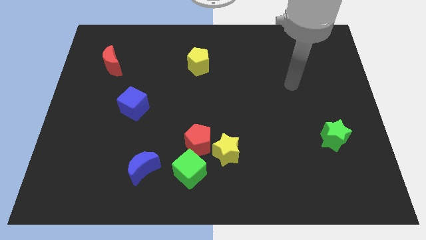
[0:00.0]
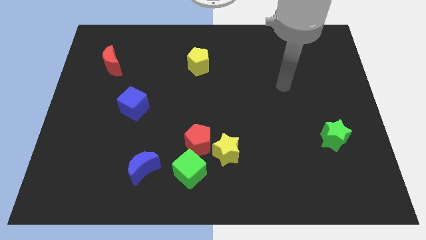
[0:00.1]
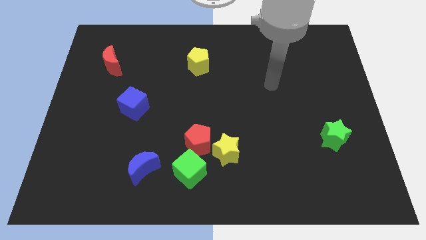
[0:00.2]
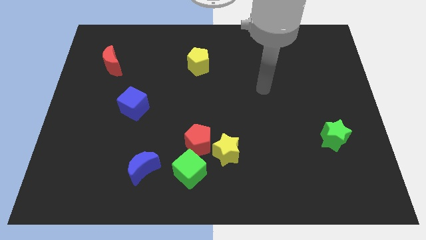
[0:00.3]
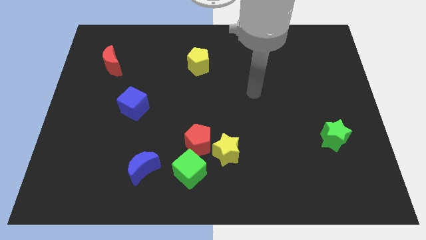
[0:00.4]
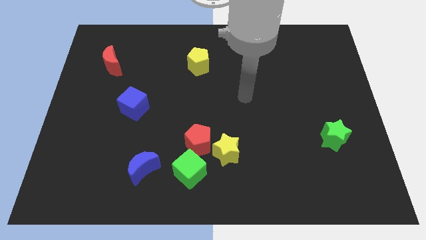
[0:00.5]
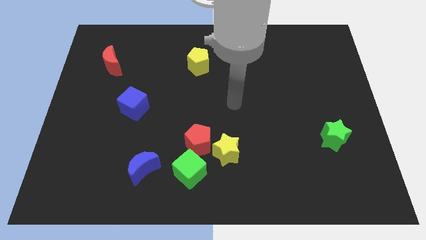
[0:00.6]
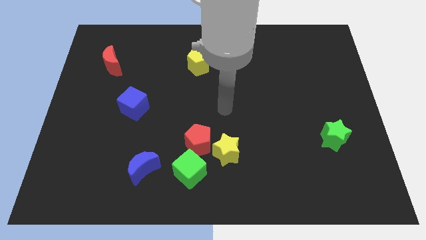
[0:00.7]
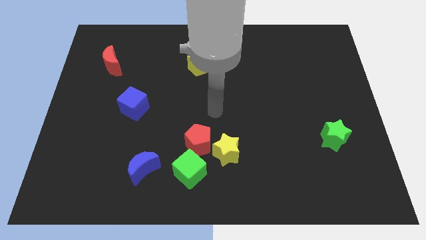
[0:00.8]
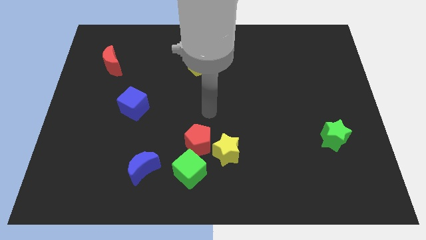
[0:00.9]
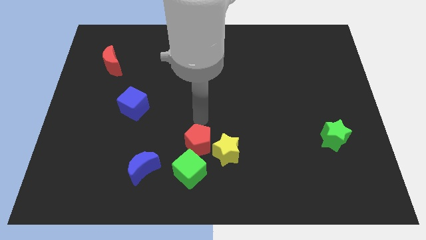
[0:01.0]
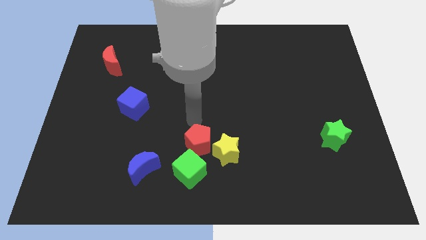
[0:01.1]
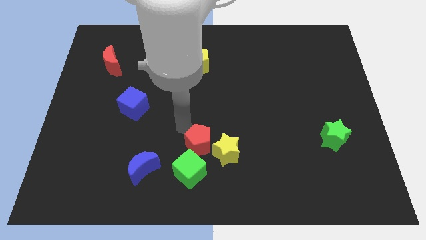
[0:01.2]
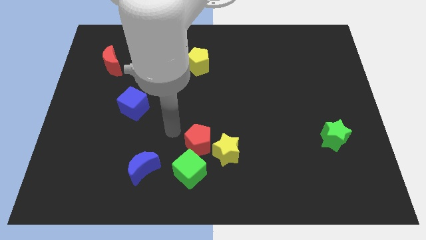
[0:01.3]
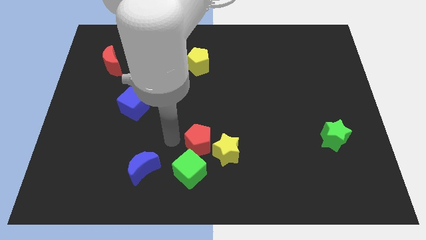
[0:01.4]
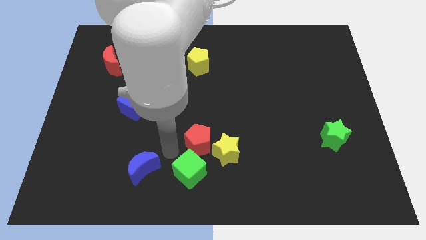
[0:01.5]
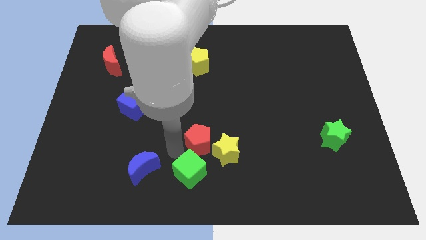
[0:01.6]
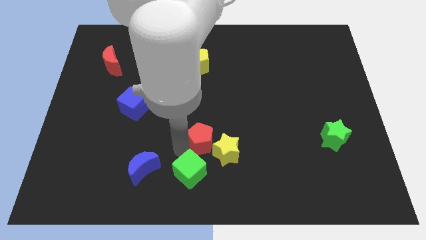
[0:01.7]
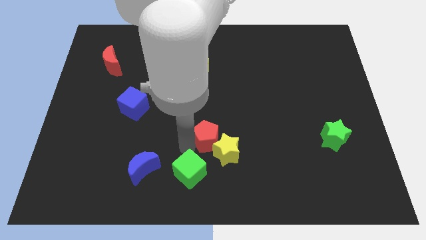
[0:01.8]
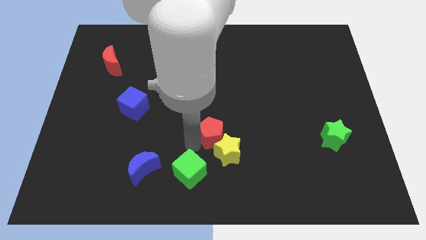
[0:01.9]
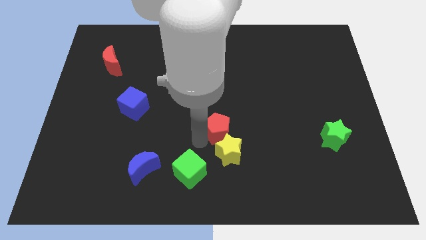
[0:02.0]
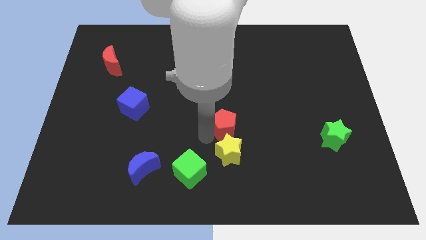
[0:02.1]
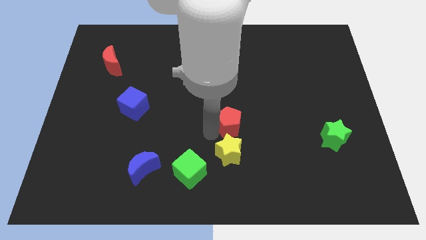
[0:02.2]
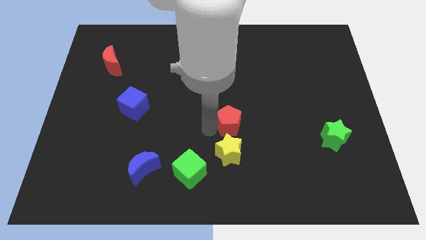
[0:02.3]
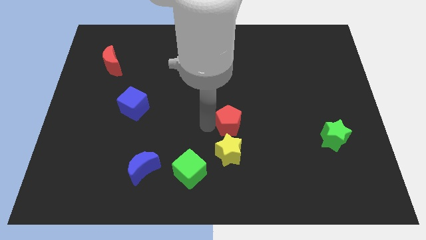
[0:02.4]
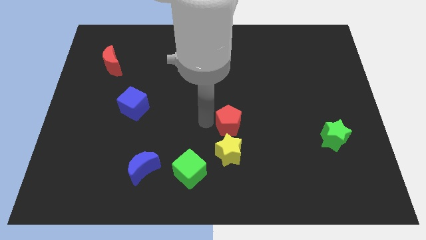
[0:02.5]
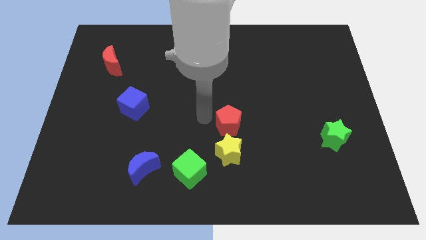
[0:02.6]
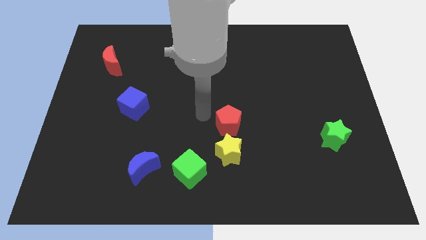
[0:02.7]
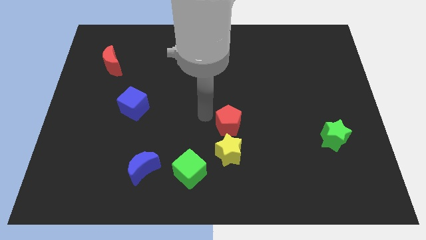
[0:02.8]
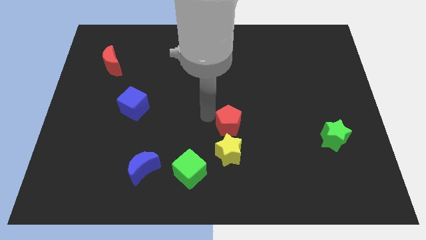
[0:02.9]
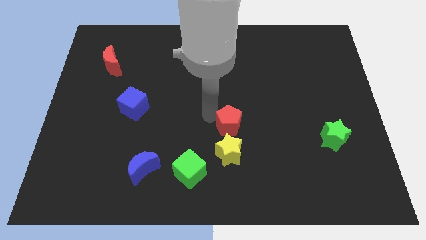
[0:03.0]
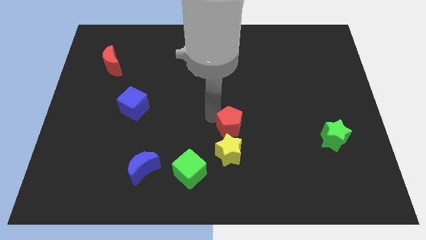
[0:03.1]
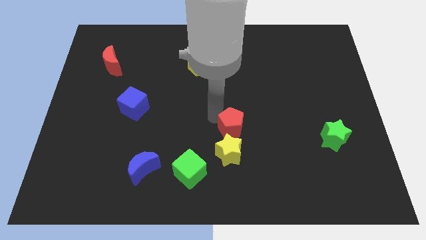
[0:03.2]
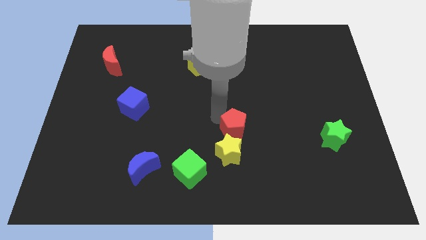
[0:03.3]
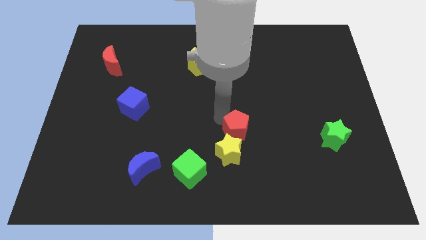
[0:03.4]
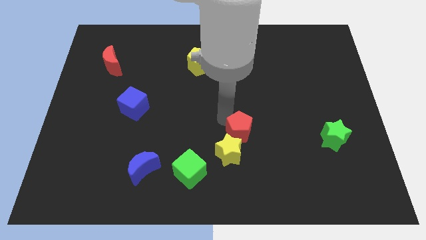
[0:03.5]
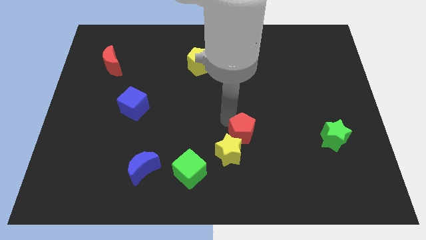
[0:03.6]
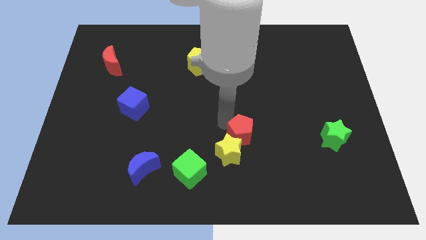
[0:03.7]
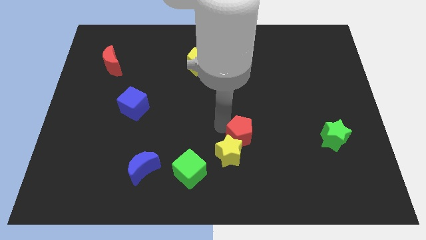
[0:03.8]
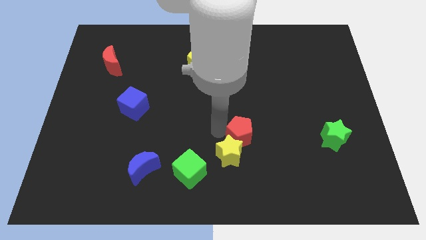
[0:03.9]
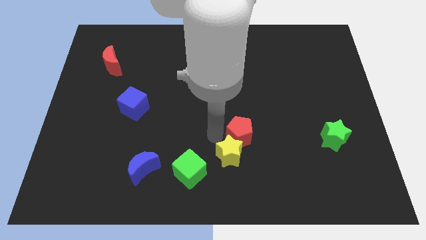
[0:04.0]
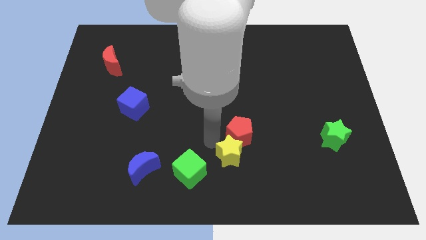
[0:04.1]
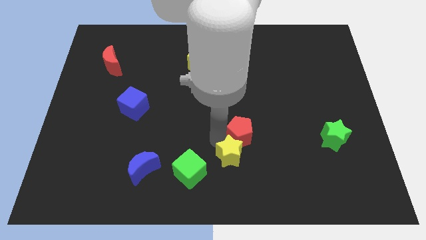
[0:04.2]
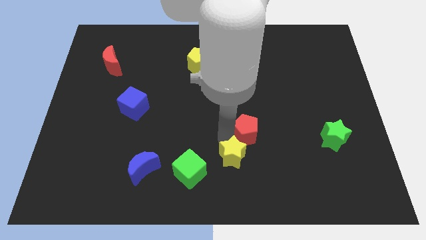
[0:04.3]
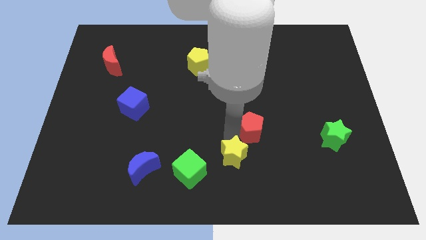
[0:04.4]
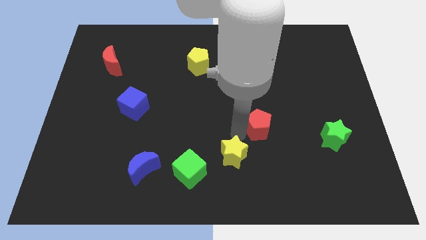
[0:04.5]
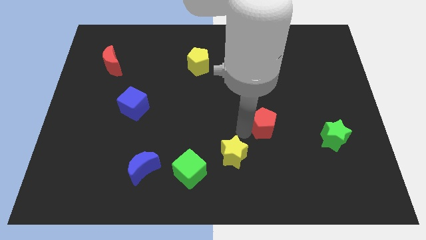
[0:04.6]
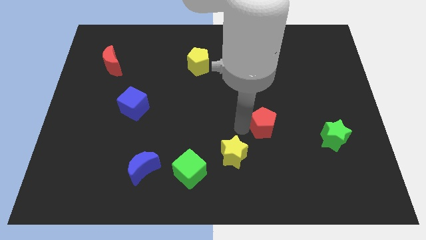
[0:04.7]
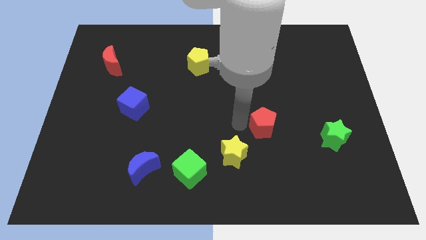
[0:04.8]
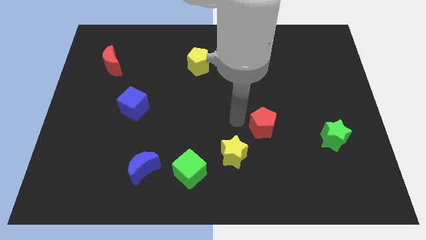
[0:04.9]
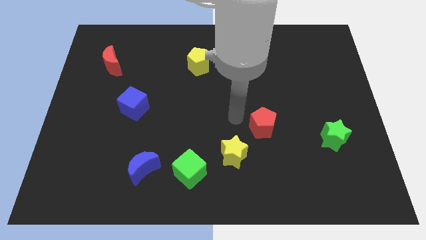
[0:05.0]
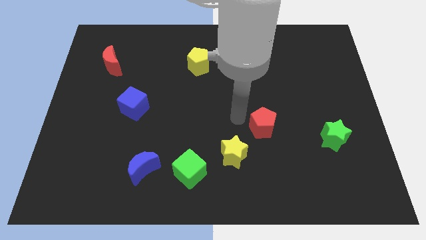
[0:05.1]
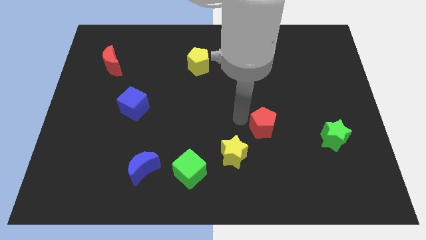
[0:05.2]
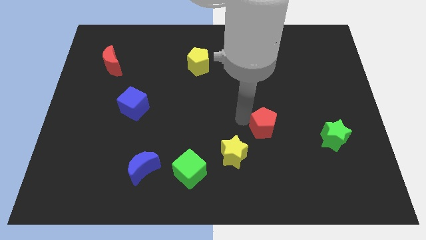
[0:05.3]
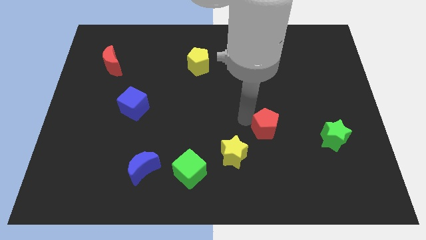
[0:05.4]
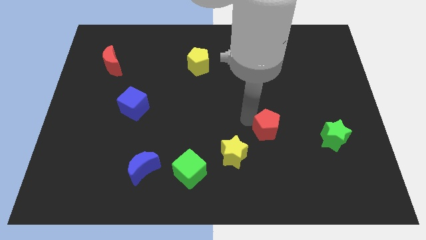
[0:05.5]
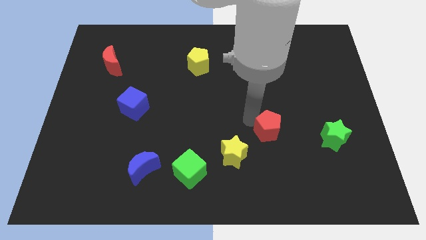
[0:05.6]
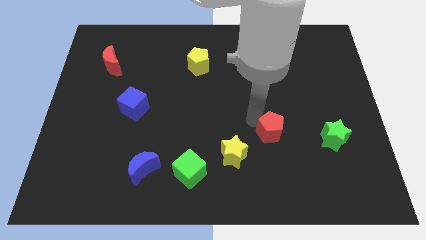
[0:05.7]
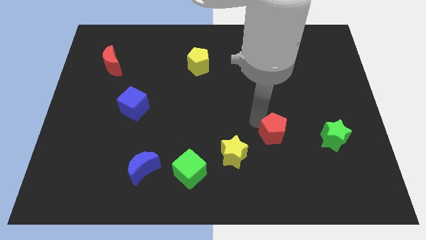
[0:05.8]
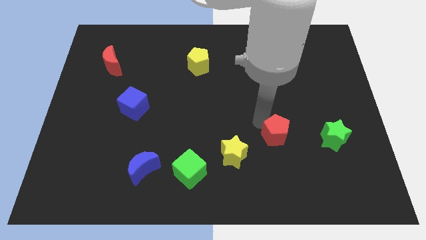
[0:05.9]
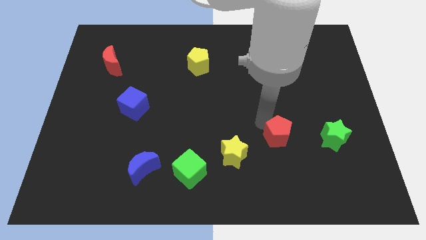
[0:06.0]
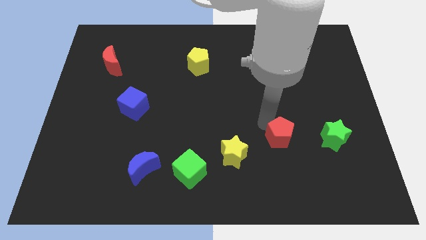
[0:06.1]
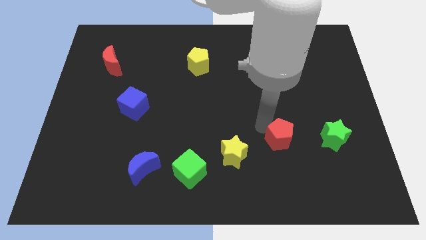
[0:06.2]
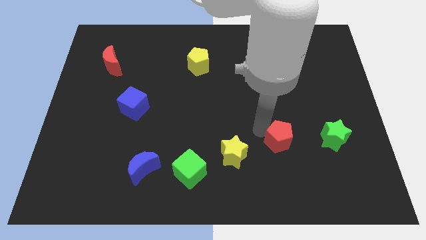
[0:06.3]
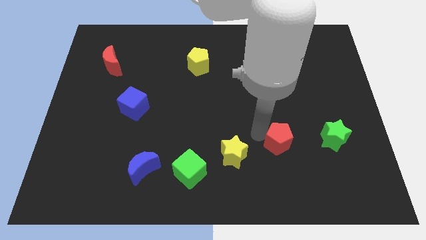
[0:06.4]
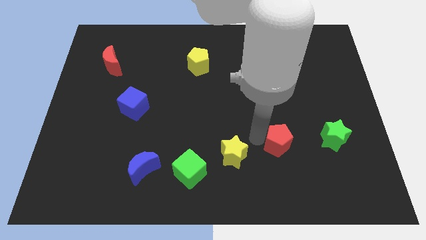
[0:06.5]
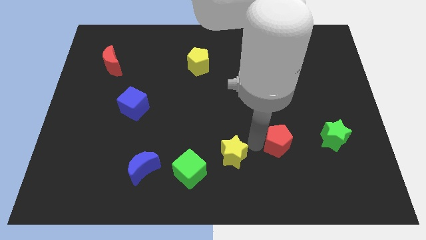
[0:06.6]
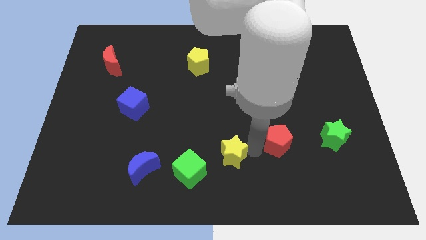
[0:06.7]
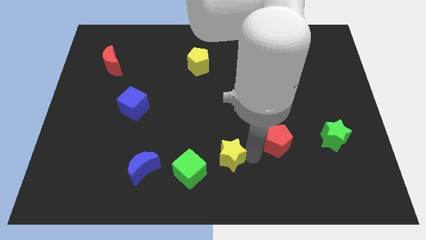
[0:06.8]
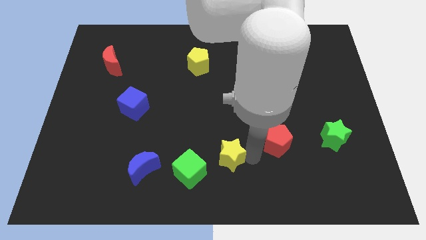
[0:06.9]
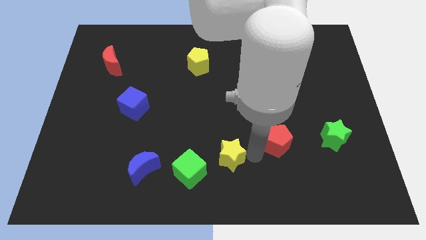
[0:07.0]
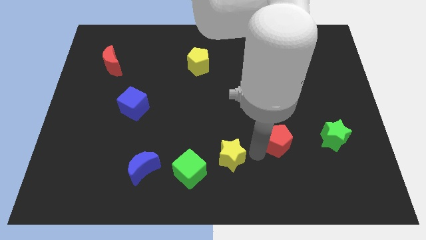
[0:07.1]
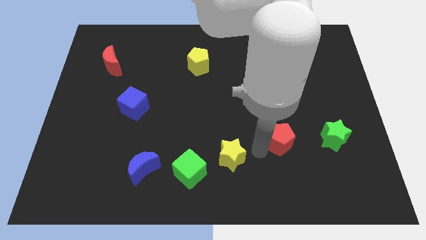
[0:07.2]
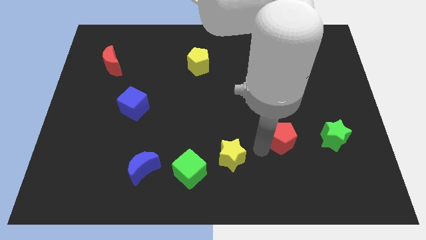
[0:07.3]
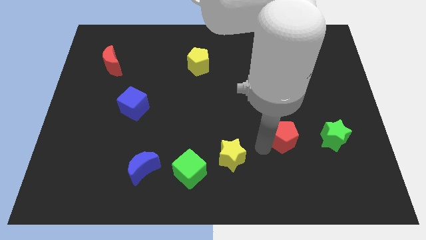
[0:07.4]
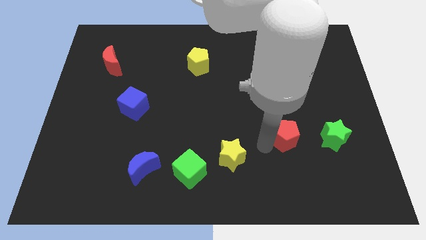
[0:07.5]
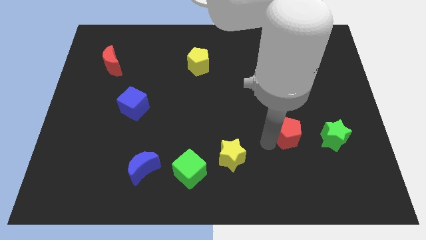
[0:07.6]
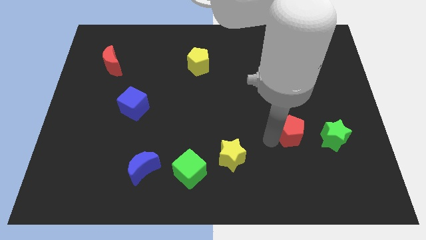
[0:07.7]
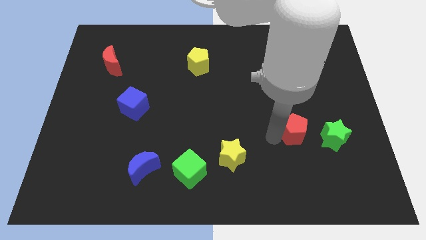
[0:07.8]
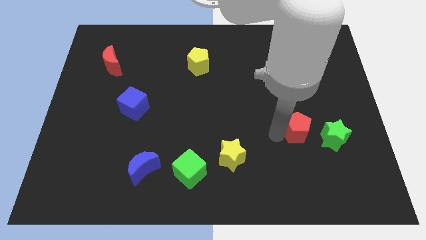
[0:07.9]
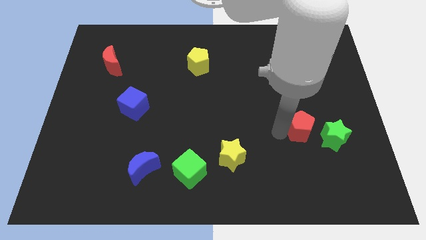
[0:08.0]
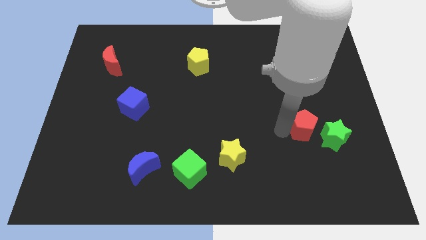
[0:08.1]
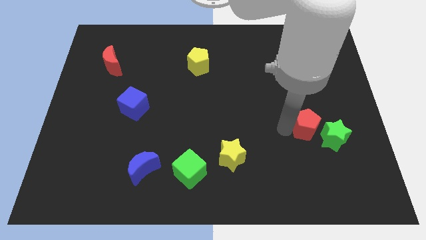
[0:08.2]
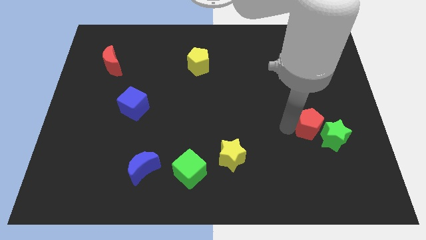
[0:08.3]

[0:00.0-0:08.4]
put the red pentagon to the green star
